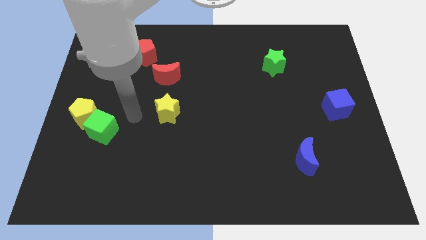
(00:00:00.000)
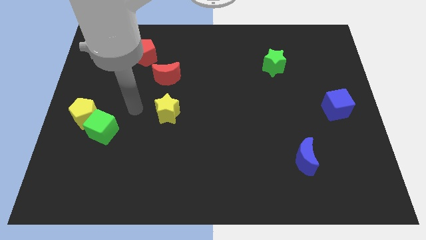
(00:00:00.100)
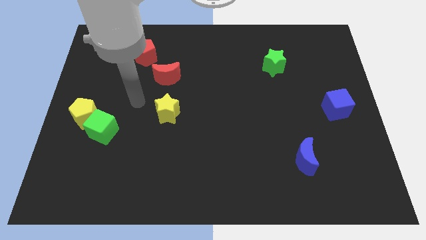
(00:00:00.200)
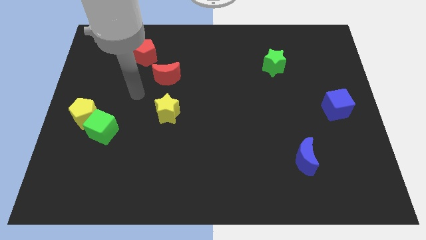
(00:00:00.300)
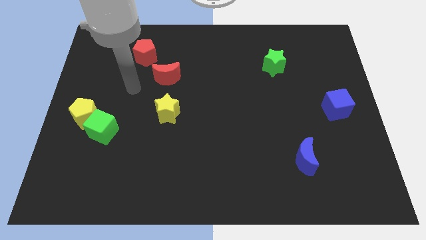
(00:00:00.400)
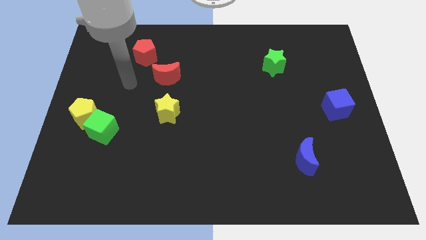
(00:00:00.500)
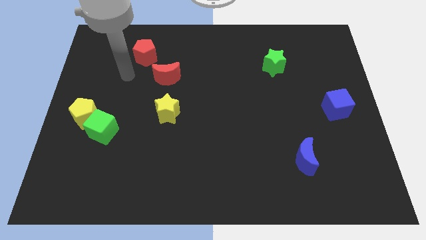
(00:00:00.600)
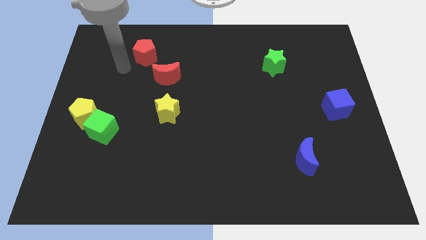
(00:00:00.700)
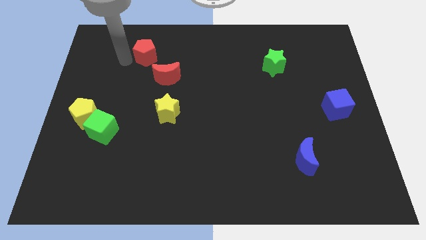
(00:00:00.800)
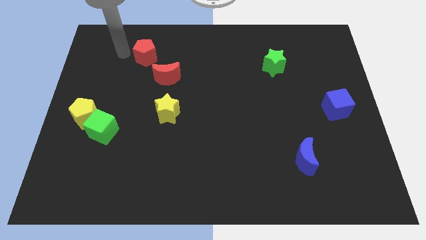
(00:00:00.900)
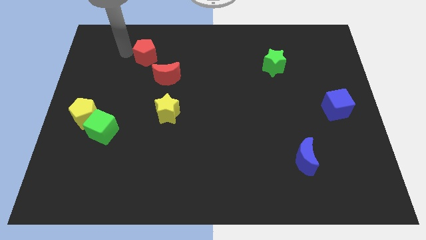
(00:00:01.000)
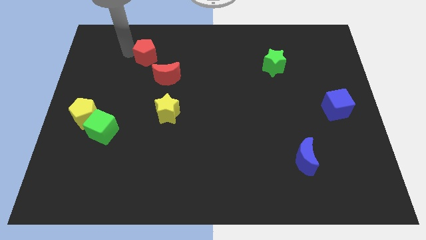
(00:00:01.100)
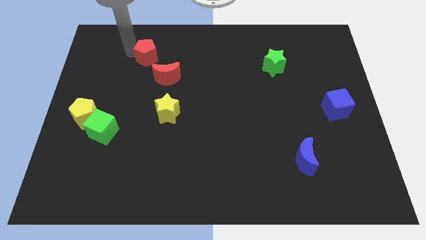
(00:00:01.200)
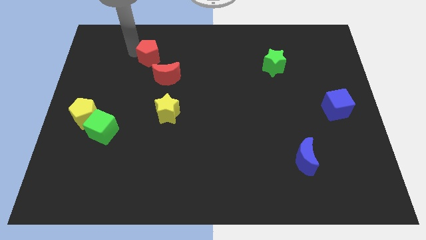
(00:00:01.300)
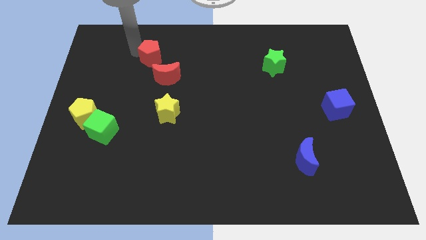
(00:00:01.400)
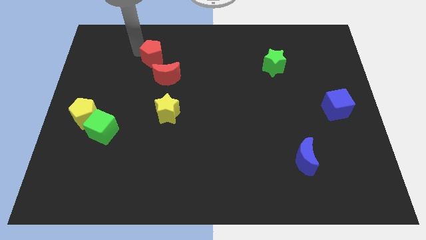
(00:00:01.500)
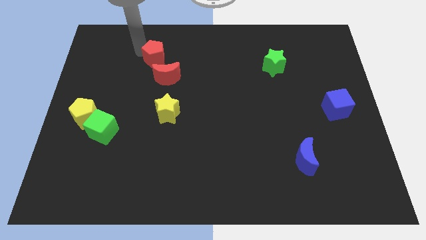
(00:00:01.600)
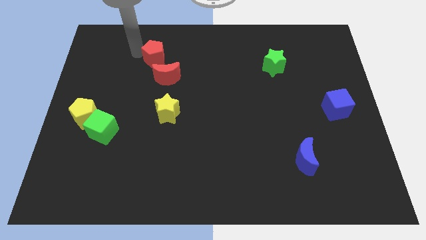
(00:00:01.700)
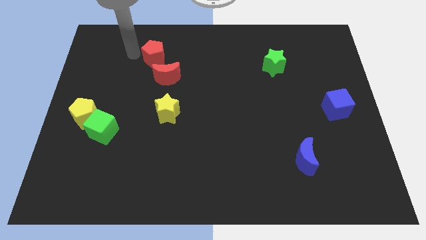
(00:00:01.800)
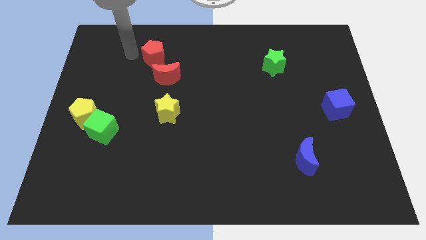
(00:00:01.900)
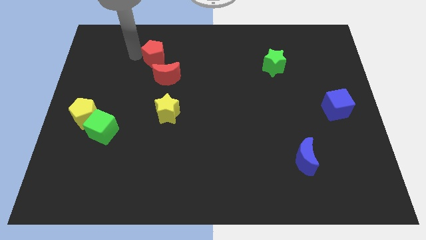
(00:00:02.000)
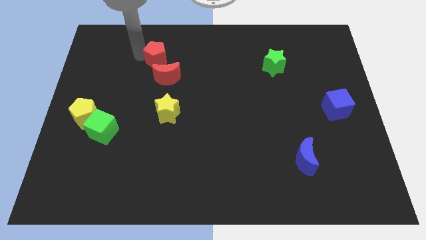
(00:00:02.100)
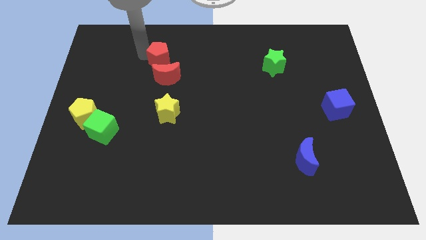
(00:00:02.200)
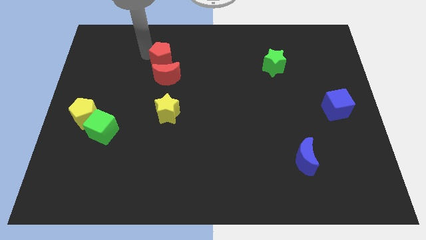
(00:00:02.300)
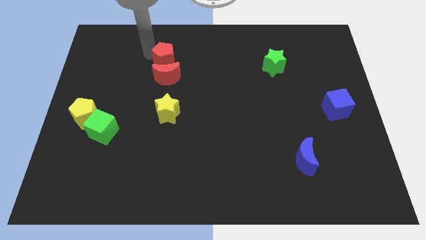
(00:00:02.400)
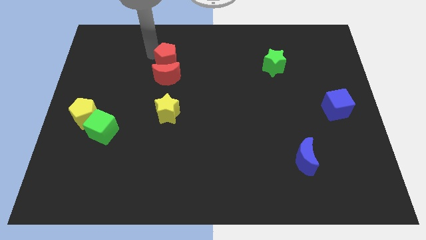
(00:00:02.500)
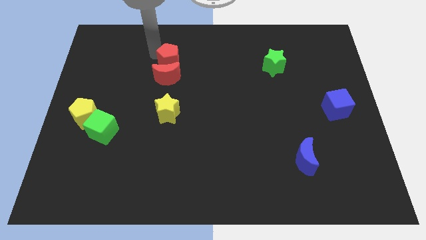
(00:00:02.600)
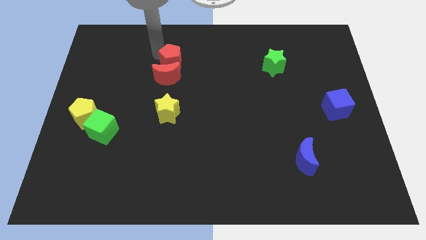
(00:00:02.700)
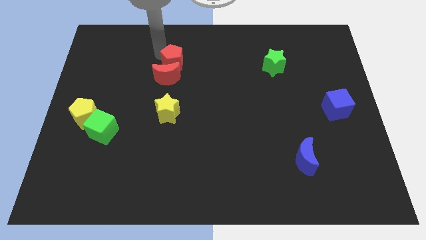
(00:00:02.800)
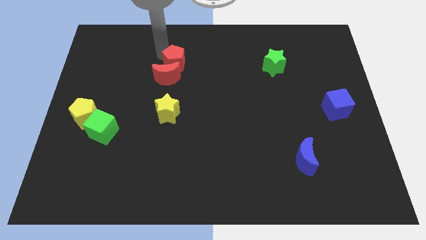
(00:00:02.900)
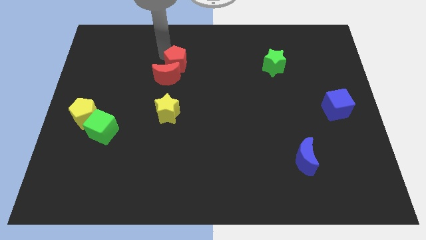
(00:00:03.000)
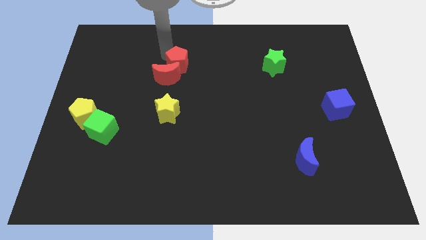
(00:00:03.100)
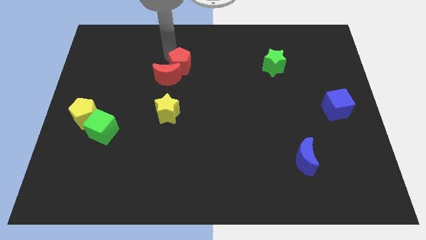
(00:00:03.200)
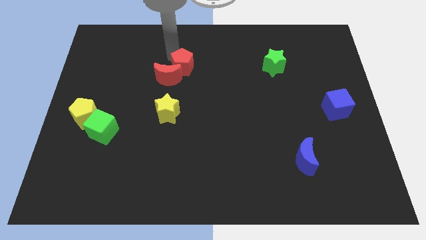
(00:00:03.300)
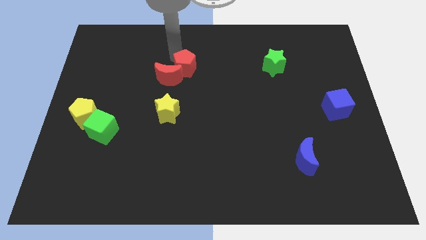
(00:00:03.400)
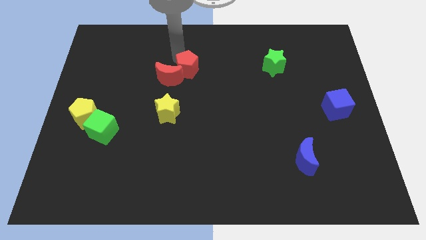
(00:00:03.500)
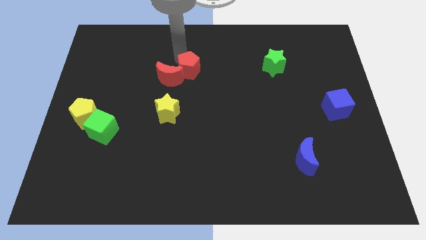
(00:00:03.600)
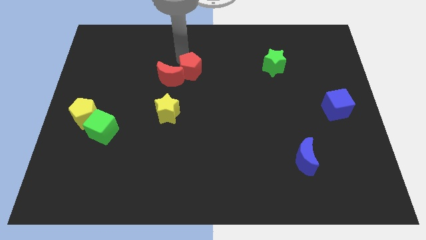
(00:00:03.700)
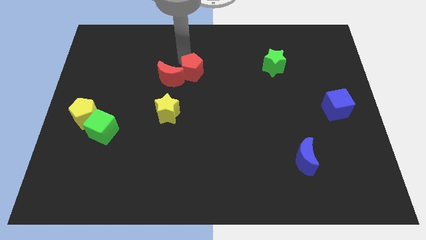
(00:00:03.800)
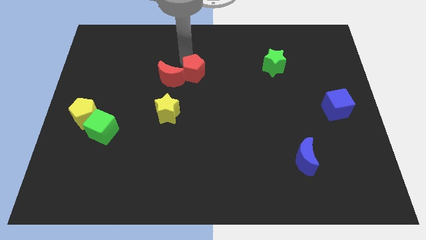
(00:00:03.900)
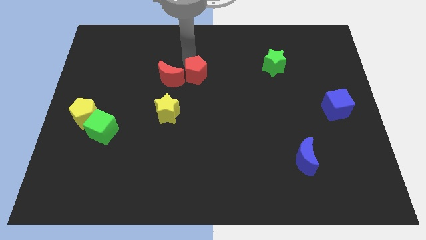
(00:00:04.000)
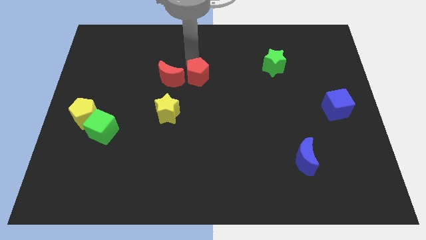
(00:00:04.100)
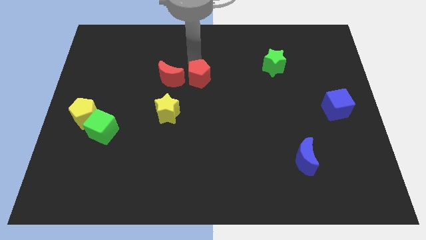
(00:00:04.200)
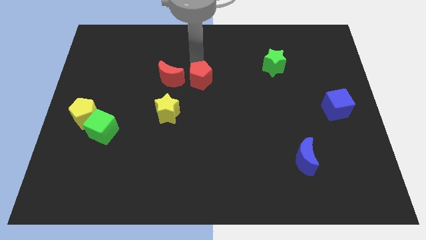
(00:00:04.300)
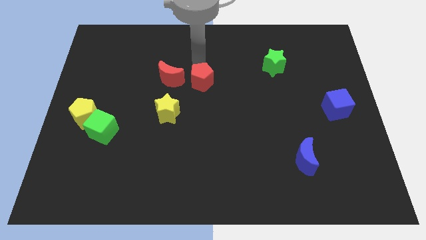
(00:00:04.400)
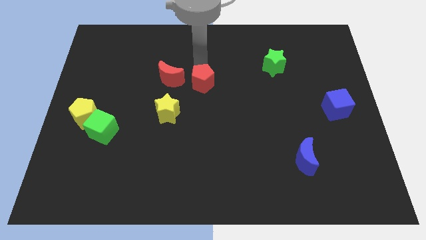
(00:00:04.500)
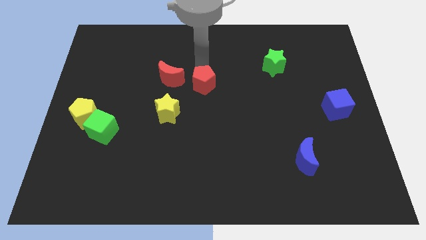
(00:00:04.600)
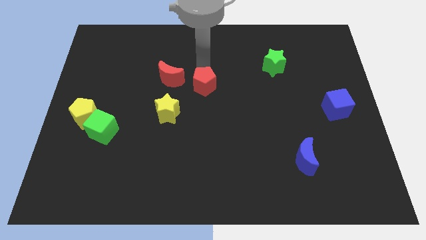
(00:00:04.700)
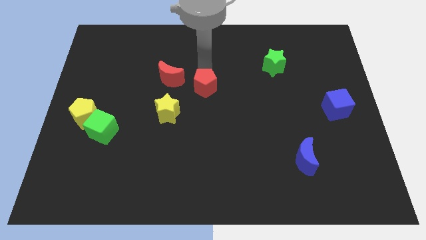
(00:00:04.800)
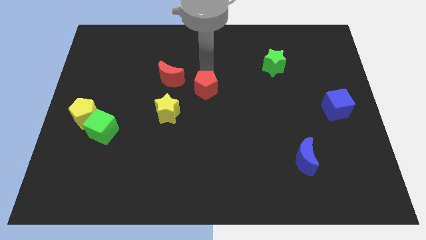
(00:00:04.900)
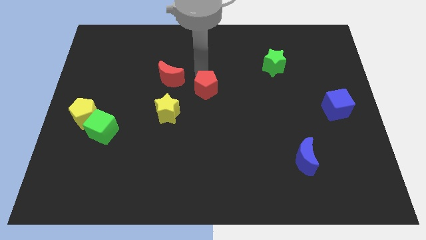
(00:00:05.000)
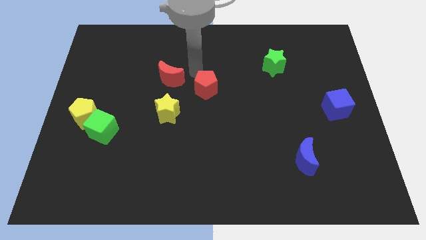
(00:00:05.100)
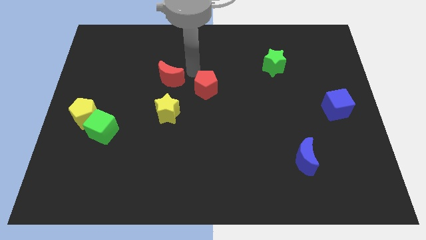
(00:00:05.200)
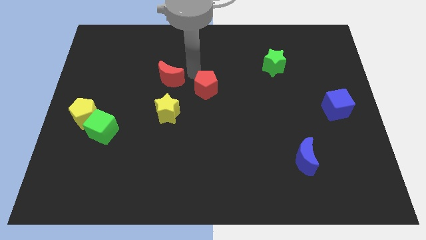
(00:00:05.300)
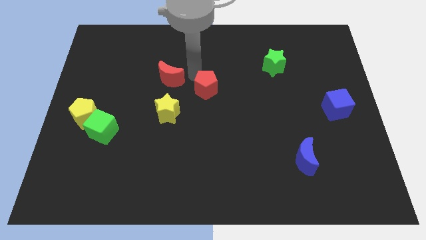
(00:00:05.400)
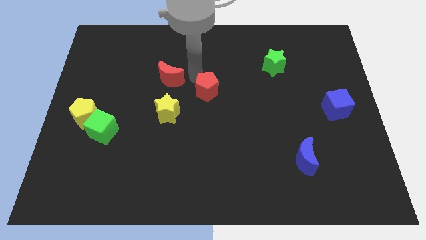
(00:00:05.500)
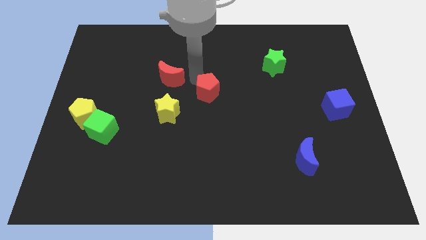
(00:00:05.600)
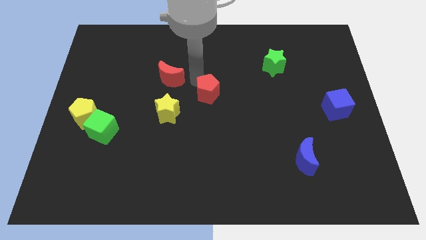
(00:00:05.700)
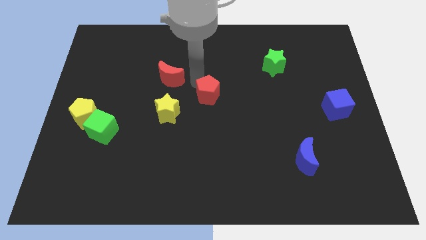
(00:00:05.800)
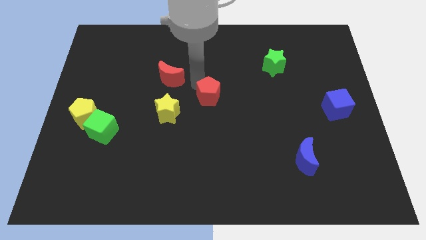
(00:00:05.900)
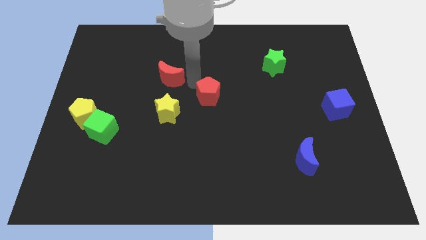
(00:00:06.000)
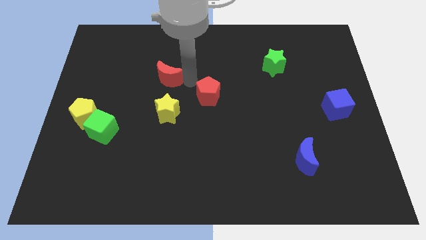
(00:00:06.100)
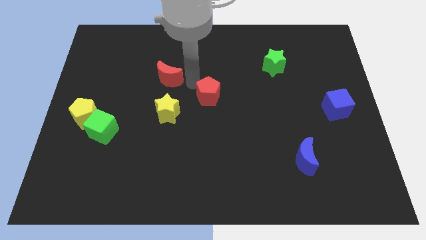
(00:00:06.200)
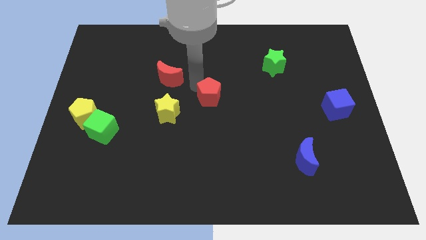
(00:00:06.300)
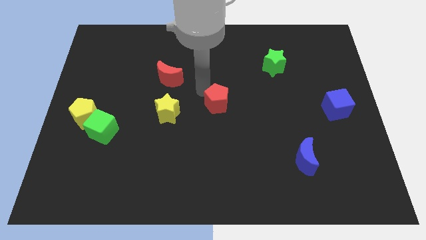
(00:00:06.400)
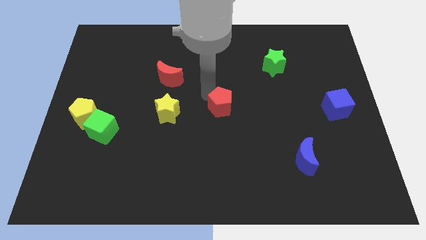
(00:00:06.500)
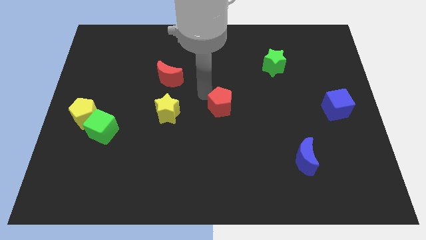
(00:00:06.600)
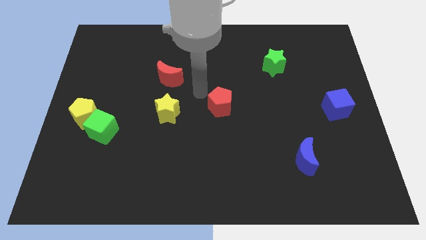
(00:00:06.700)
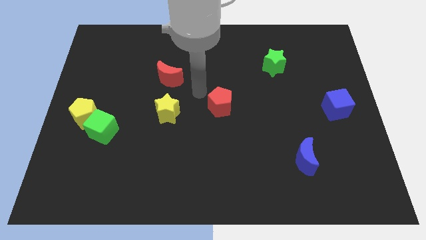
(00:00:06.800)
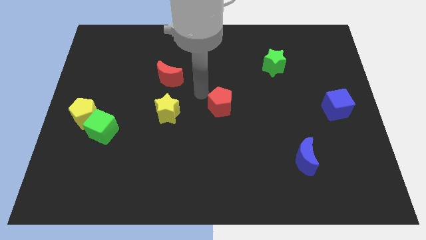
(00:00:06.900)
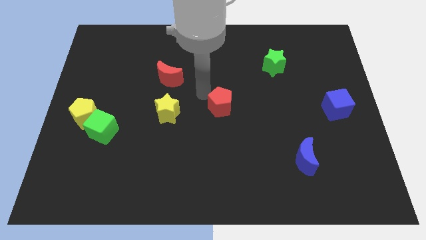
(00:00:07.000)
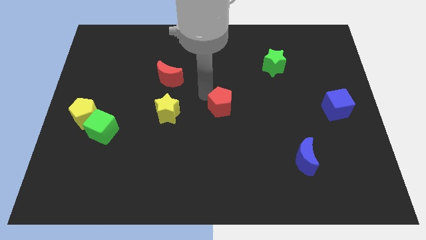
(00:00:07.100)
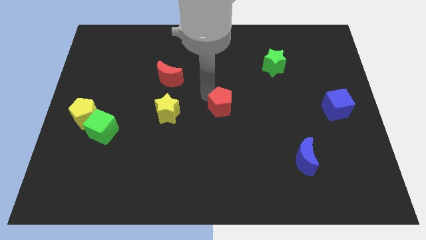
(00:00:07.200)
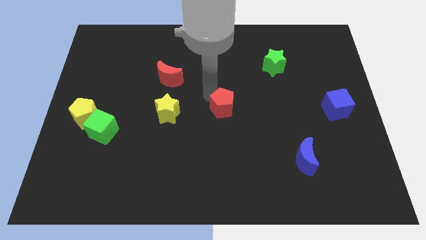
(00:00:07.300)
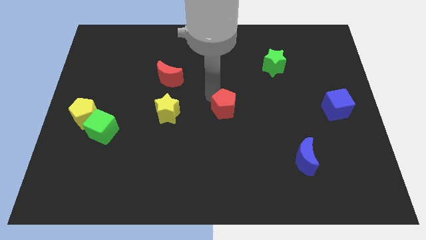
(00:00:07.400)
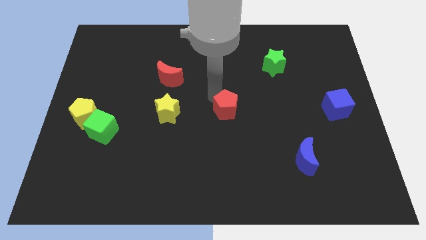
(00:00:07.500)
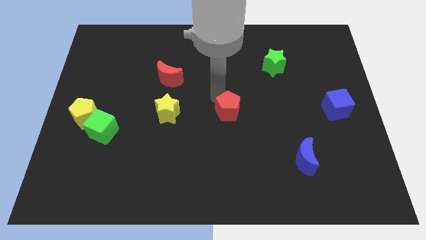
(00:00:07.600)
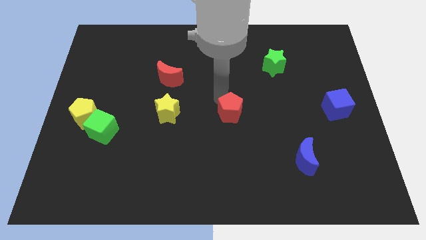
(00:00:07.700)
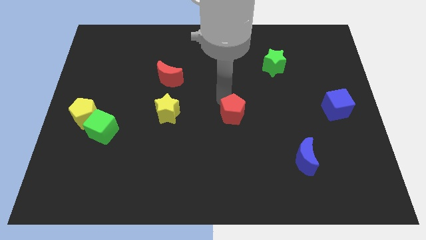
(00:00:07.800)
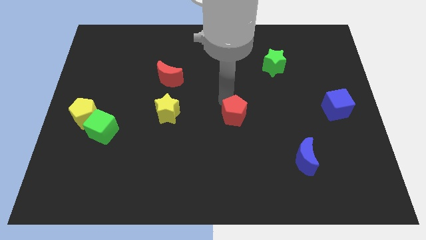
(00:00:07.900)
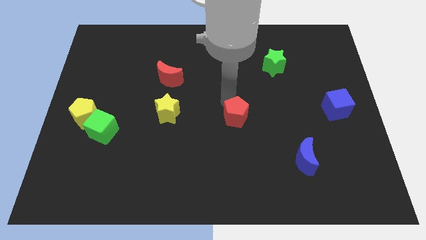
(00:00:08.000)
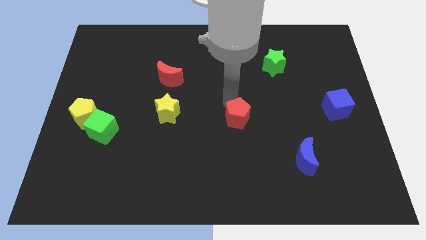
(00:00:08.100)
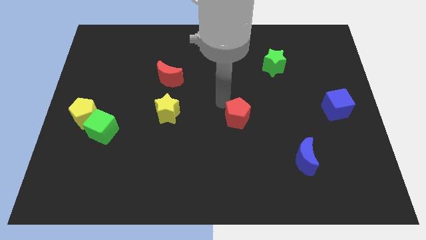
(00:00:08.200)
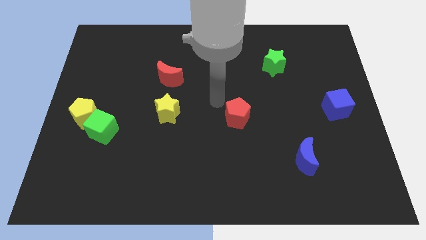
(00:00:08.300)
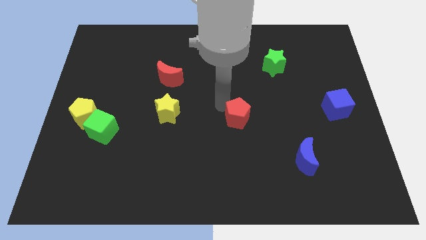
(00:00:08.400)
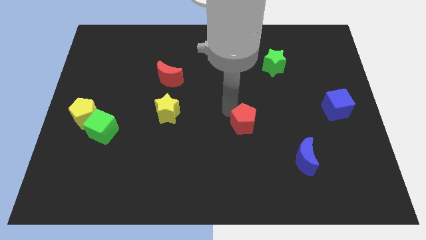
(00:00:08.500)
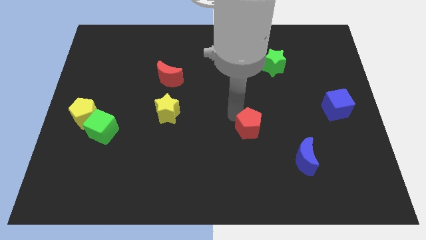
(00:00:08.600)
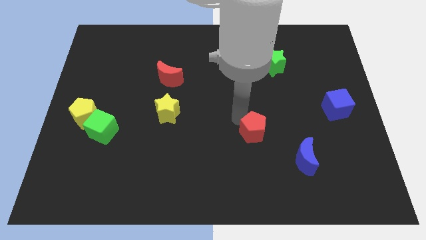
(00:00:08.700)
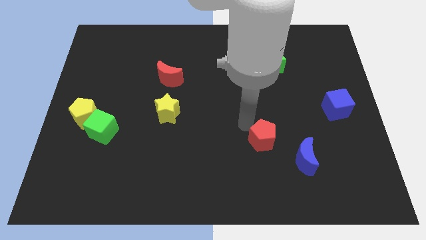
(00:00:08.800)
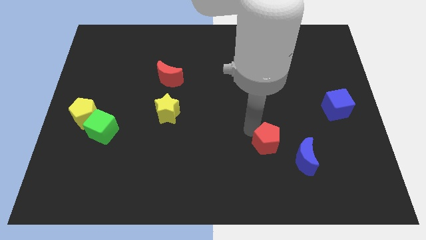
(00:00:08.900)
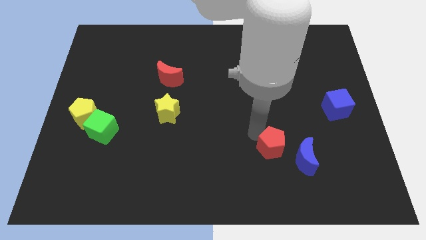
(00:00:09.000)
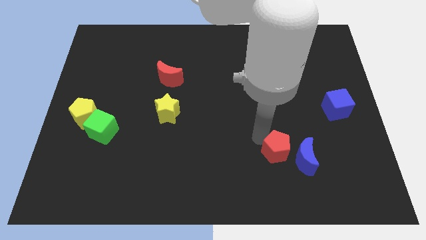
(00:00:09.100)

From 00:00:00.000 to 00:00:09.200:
slide the red pentagon towards the blue moon
